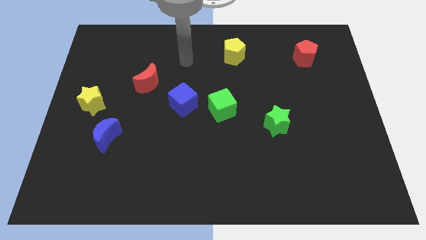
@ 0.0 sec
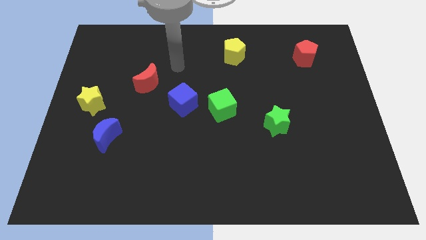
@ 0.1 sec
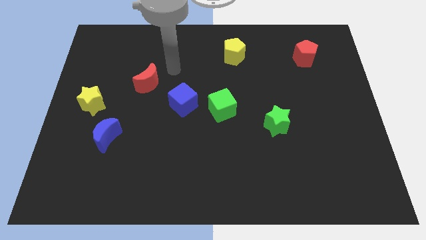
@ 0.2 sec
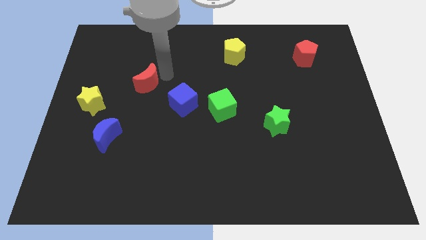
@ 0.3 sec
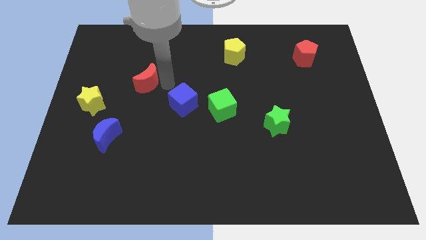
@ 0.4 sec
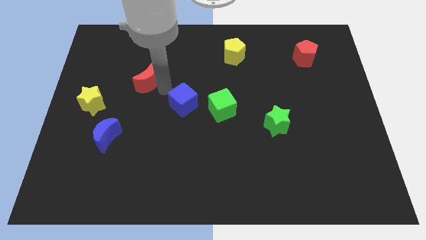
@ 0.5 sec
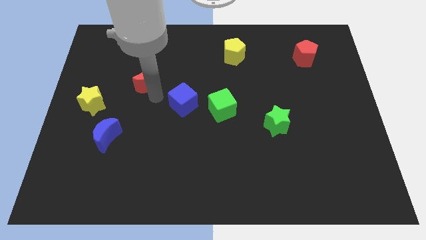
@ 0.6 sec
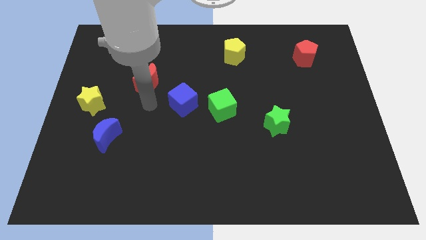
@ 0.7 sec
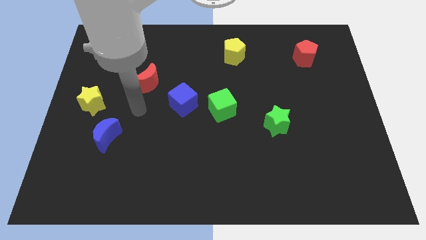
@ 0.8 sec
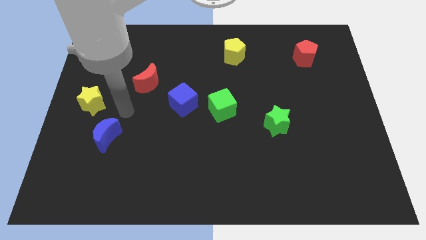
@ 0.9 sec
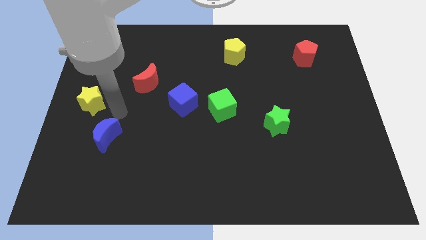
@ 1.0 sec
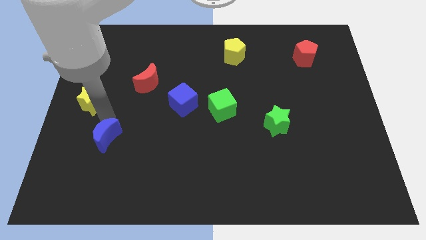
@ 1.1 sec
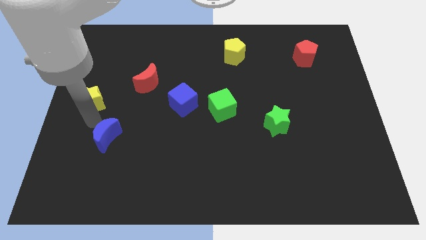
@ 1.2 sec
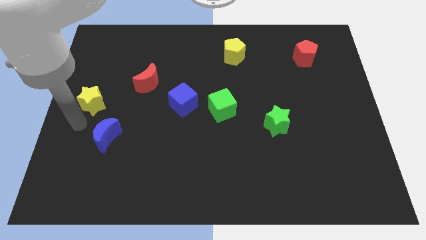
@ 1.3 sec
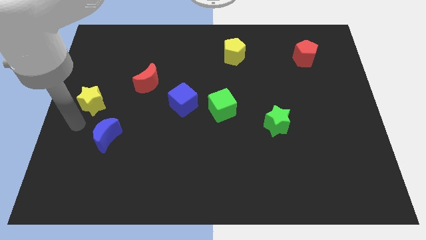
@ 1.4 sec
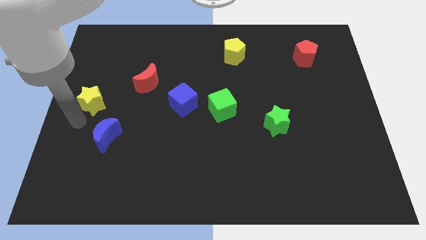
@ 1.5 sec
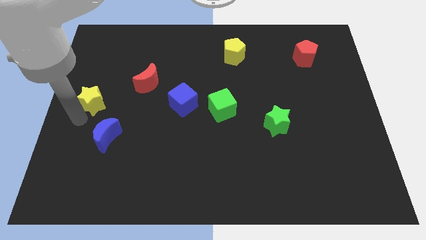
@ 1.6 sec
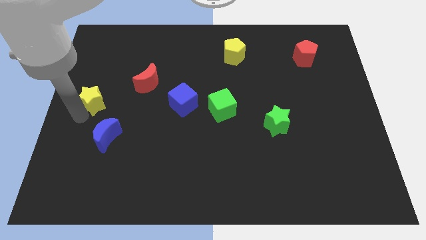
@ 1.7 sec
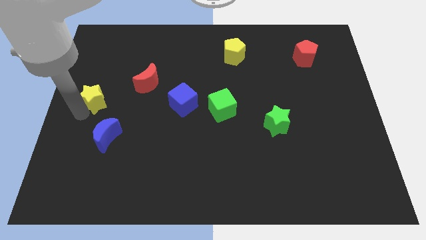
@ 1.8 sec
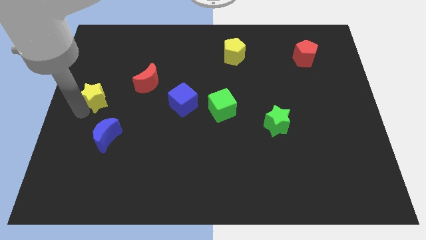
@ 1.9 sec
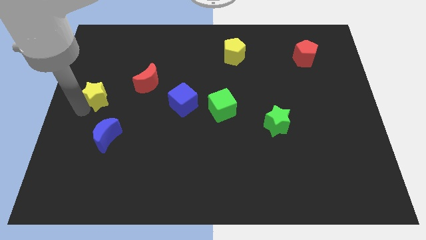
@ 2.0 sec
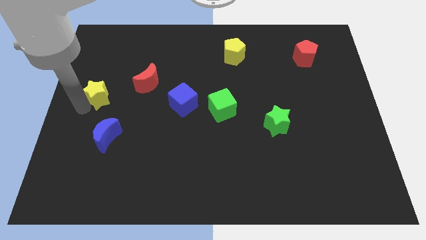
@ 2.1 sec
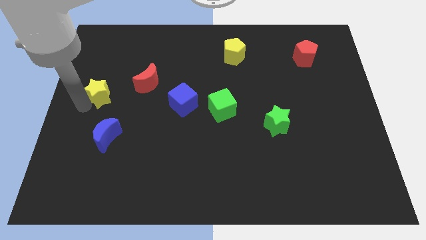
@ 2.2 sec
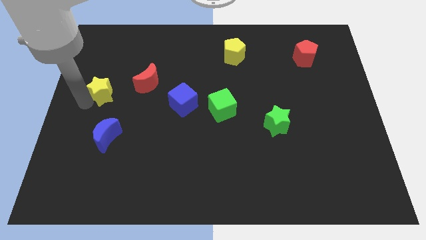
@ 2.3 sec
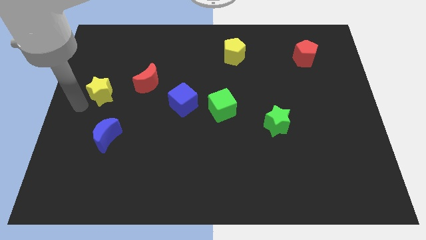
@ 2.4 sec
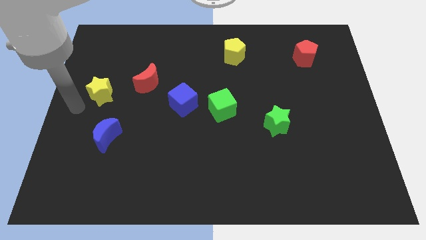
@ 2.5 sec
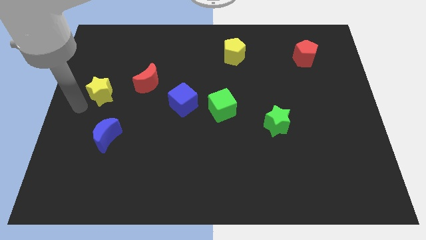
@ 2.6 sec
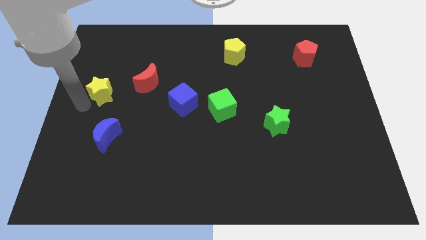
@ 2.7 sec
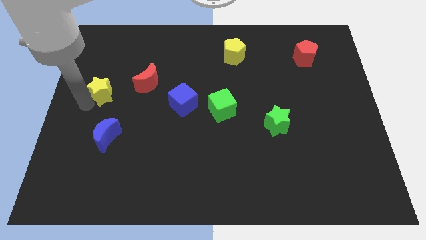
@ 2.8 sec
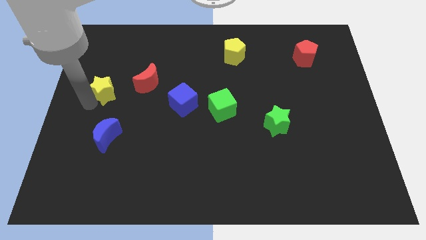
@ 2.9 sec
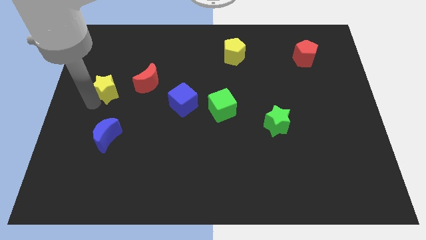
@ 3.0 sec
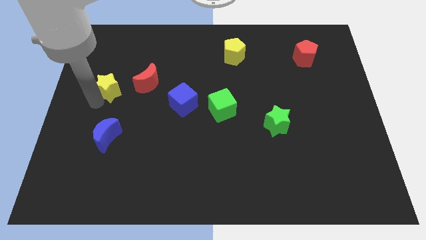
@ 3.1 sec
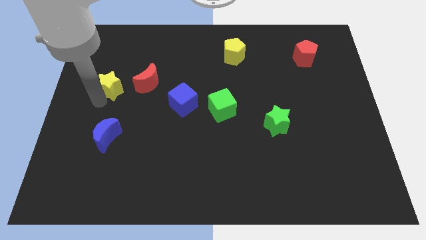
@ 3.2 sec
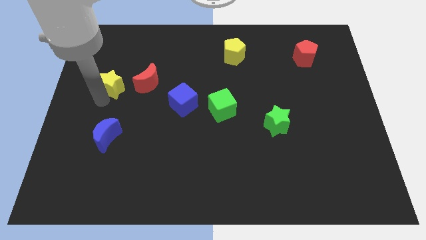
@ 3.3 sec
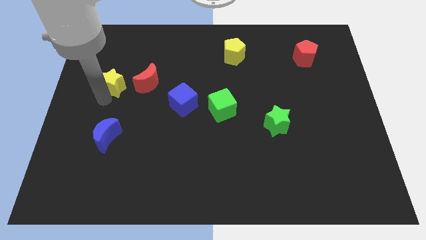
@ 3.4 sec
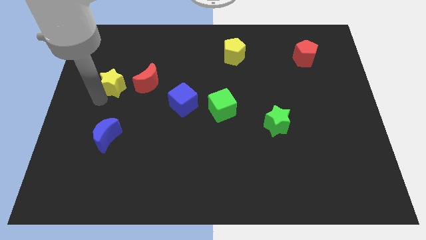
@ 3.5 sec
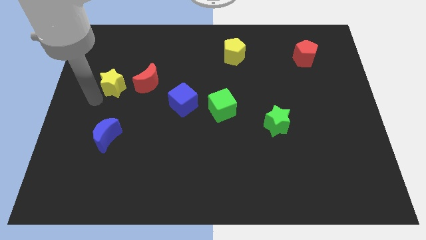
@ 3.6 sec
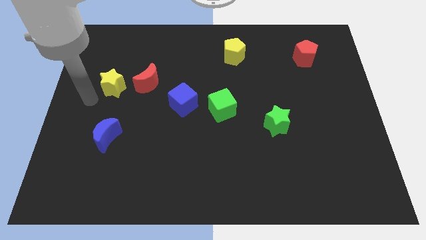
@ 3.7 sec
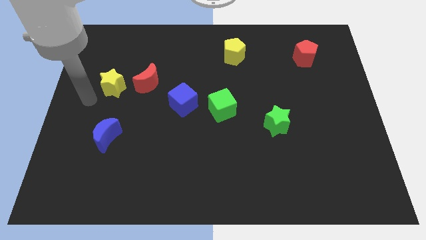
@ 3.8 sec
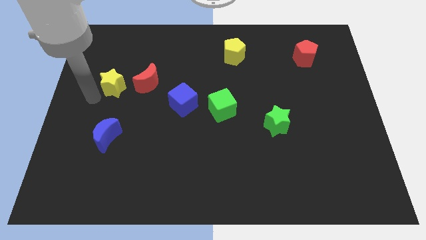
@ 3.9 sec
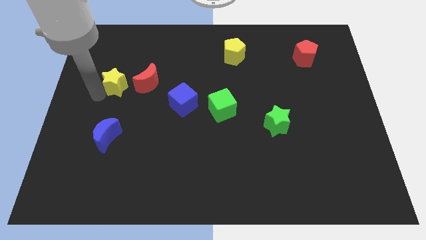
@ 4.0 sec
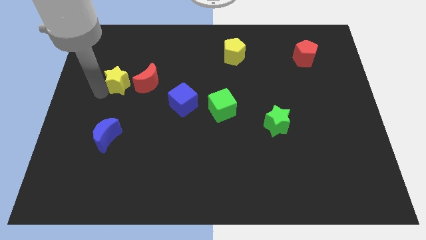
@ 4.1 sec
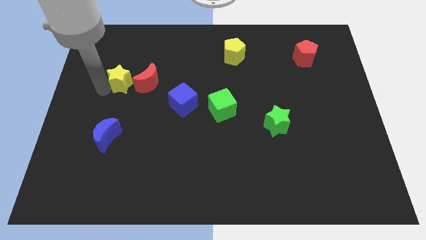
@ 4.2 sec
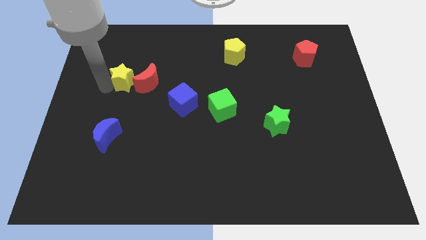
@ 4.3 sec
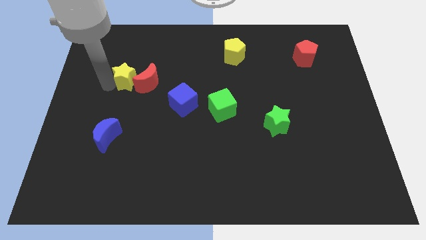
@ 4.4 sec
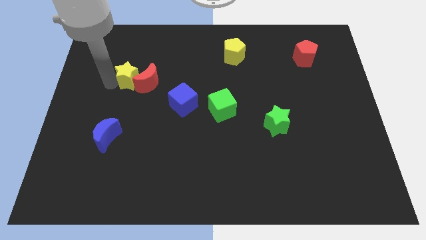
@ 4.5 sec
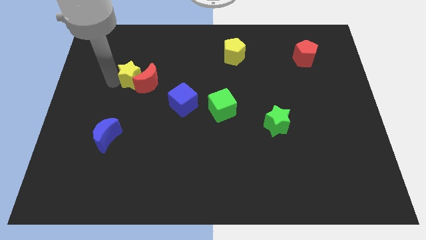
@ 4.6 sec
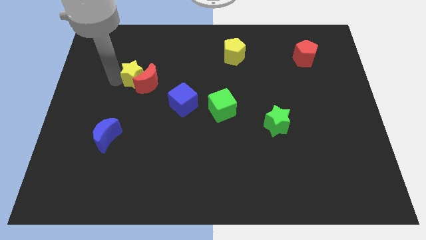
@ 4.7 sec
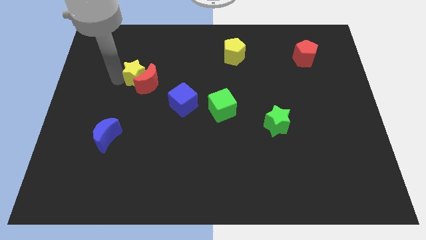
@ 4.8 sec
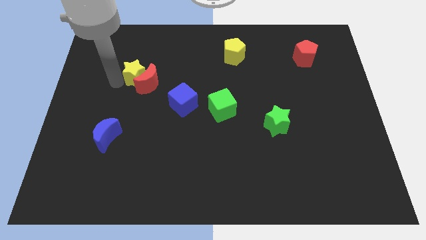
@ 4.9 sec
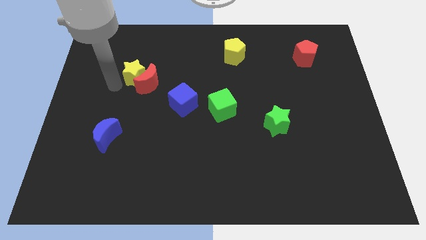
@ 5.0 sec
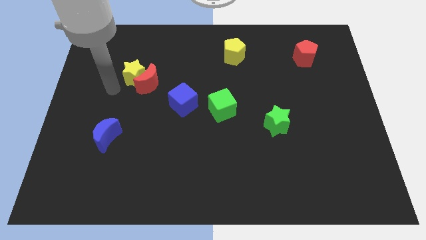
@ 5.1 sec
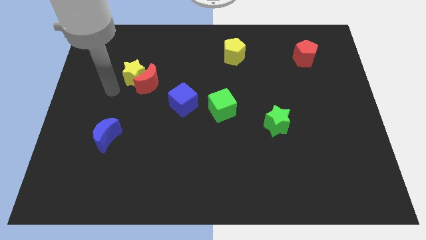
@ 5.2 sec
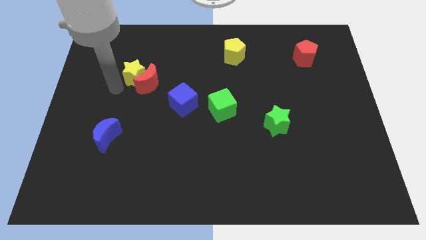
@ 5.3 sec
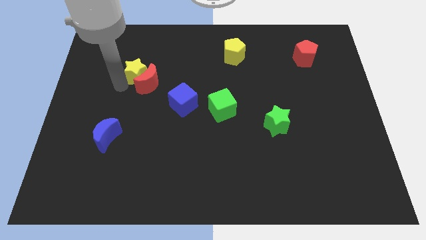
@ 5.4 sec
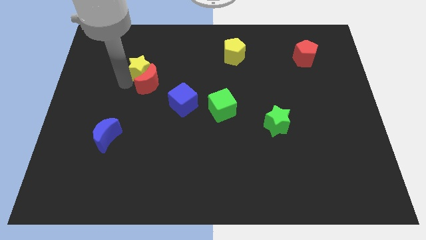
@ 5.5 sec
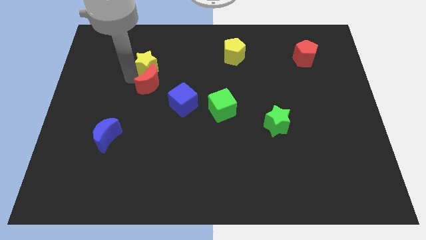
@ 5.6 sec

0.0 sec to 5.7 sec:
push the yellow star to the top right side of the red moon

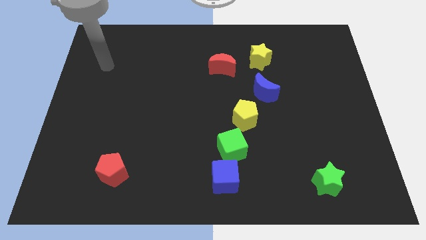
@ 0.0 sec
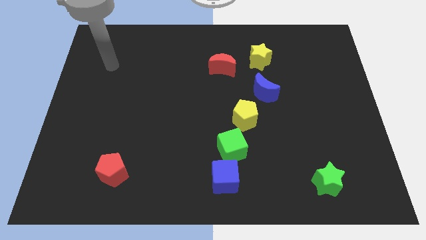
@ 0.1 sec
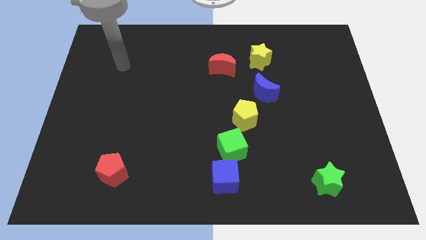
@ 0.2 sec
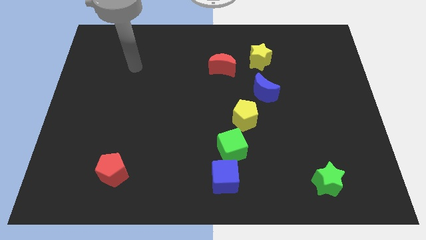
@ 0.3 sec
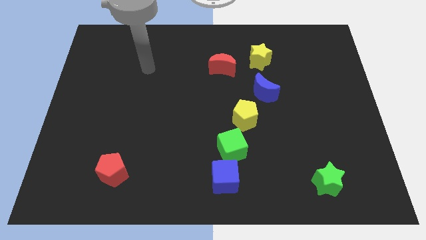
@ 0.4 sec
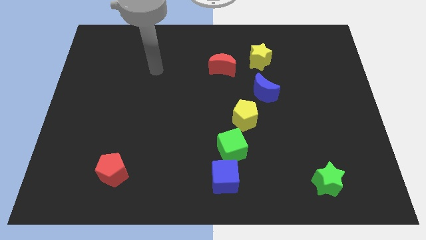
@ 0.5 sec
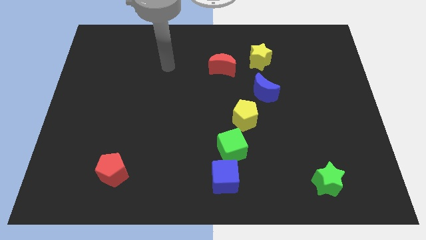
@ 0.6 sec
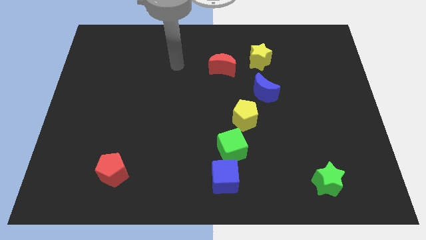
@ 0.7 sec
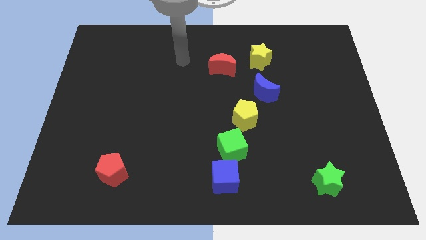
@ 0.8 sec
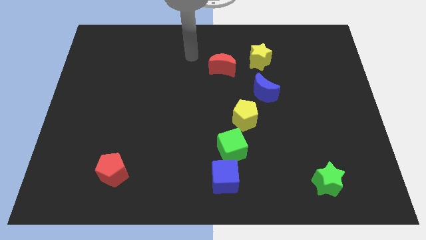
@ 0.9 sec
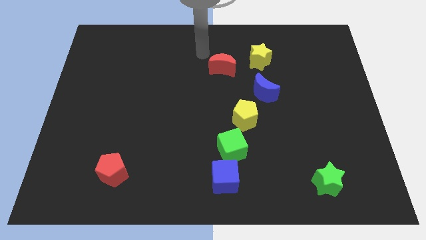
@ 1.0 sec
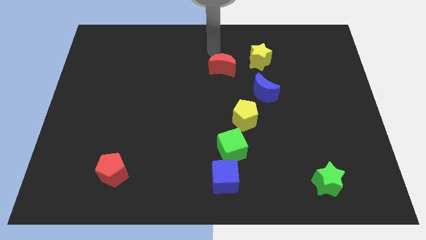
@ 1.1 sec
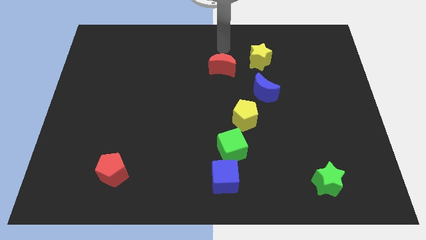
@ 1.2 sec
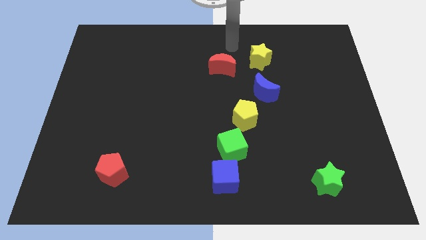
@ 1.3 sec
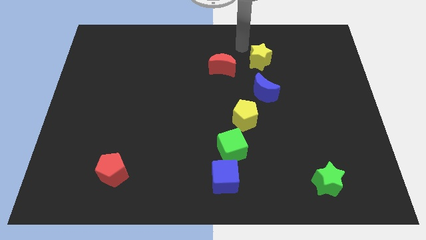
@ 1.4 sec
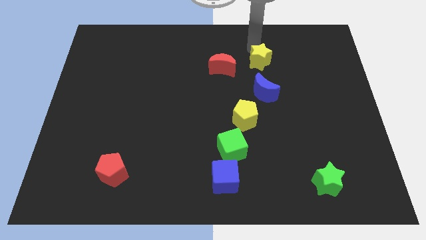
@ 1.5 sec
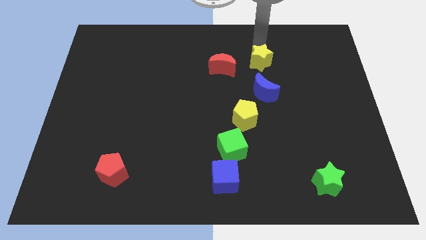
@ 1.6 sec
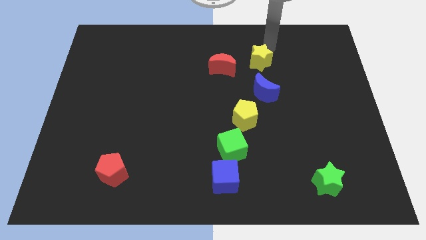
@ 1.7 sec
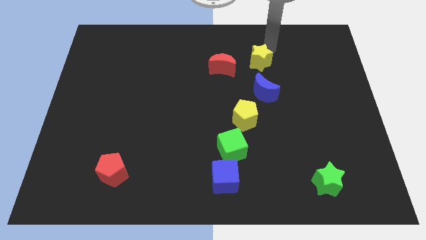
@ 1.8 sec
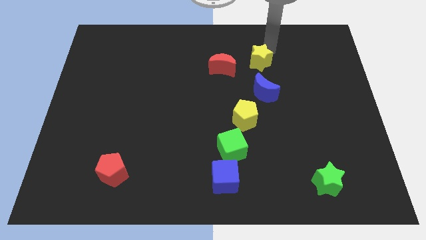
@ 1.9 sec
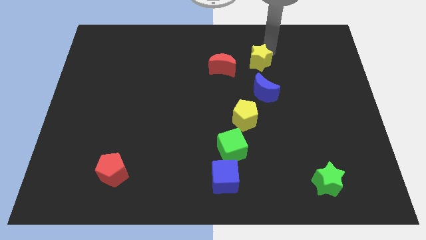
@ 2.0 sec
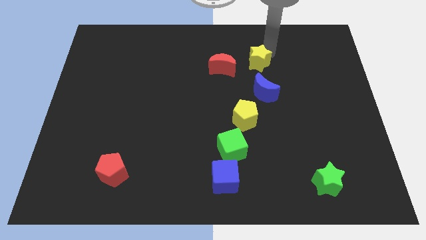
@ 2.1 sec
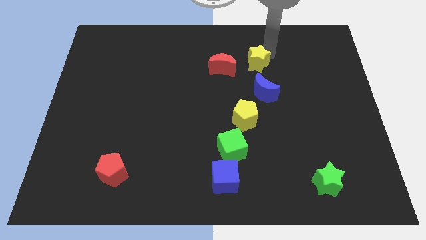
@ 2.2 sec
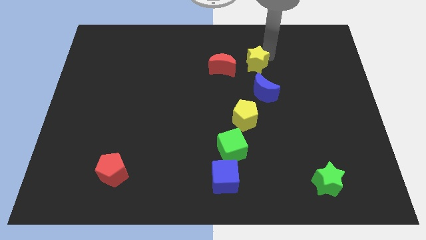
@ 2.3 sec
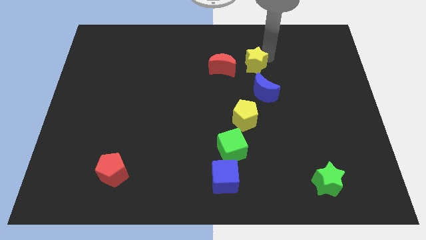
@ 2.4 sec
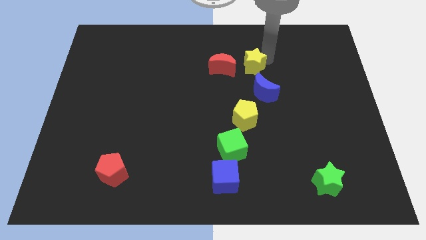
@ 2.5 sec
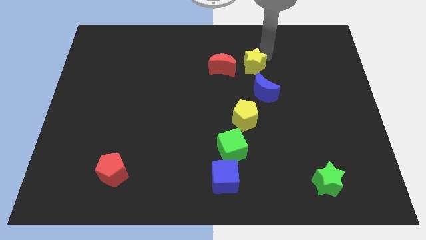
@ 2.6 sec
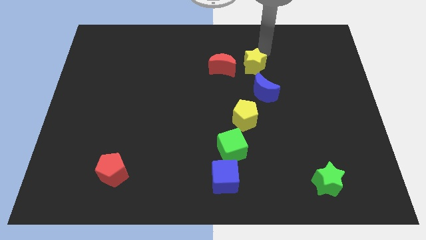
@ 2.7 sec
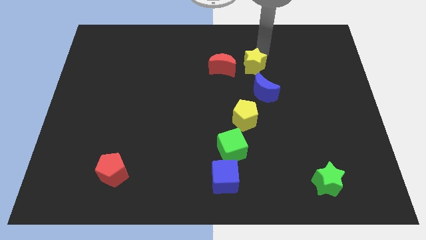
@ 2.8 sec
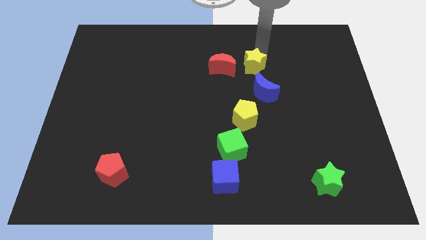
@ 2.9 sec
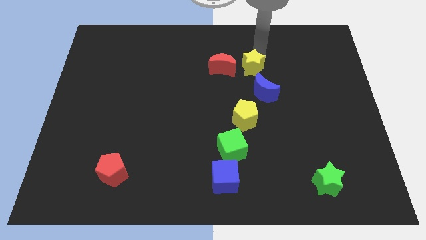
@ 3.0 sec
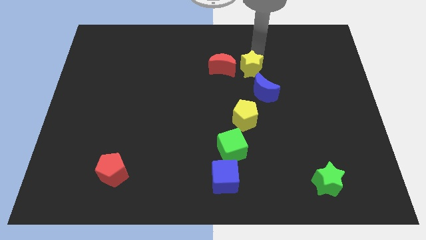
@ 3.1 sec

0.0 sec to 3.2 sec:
push the yellow star to the top of the yellow pentagon
